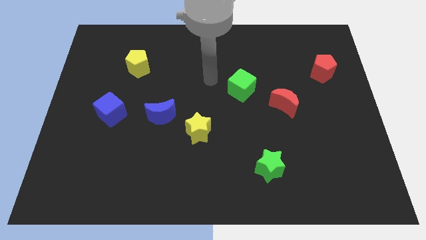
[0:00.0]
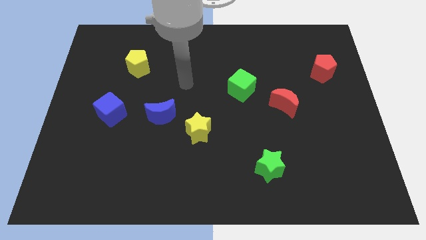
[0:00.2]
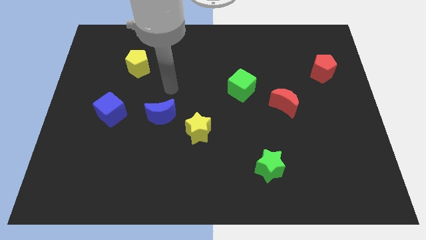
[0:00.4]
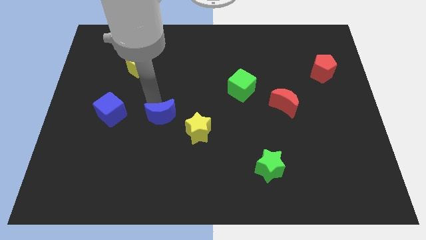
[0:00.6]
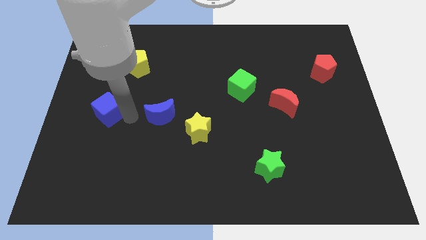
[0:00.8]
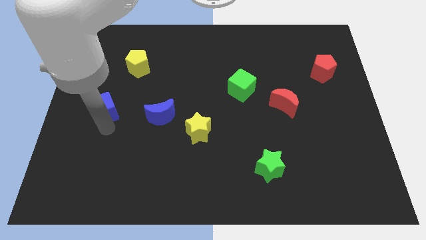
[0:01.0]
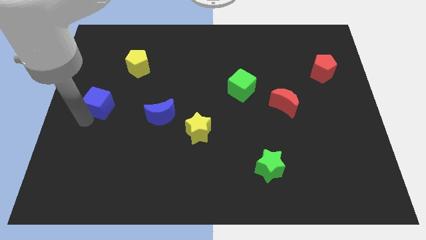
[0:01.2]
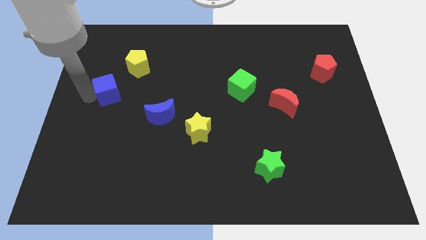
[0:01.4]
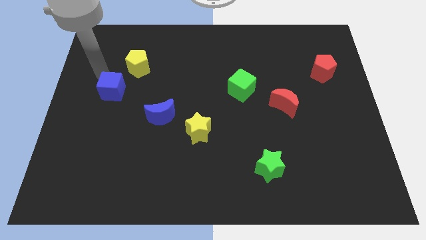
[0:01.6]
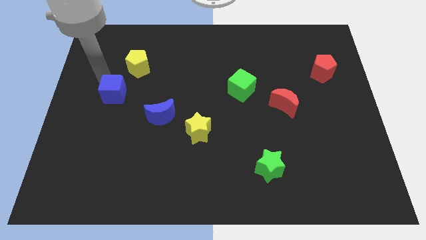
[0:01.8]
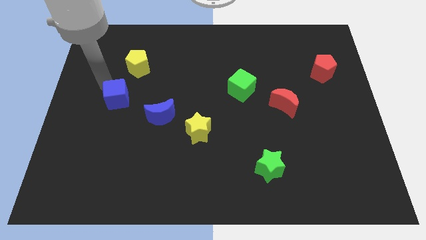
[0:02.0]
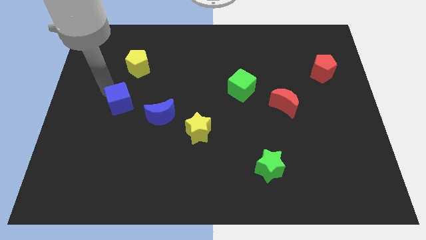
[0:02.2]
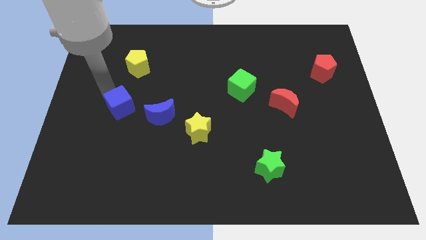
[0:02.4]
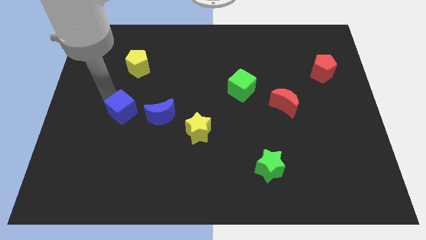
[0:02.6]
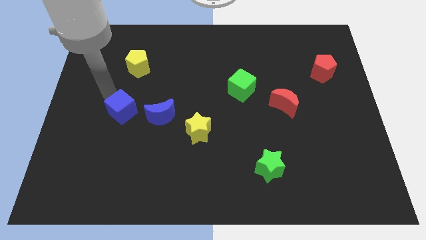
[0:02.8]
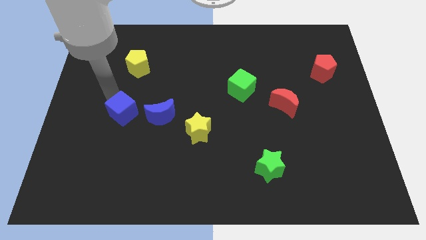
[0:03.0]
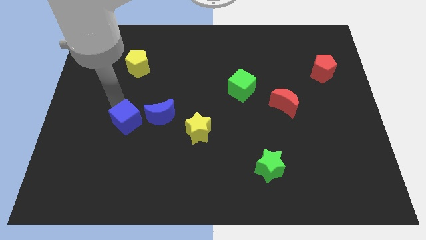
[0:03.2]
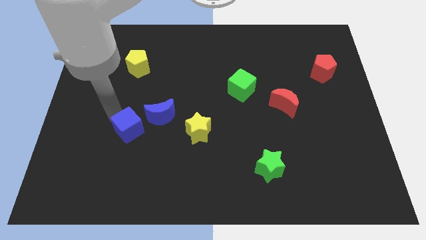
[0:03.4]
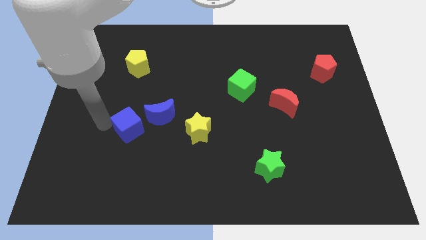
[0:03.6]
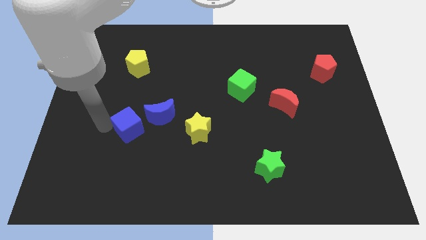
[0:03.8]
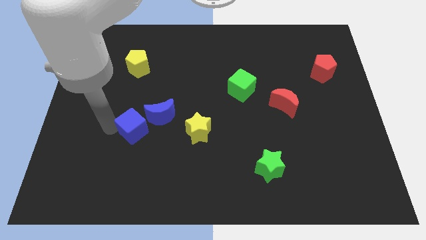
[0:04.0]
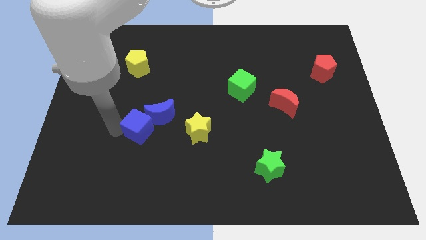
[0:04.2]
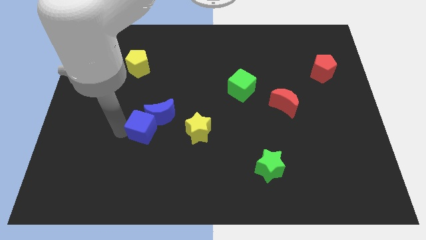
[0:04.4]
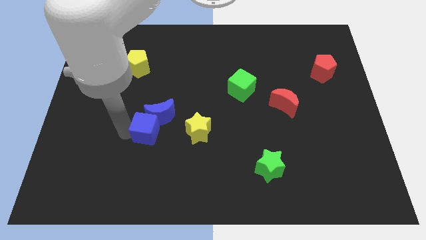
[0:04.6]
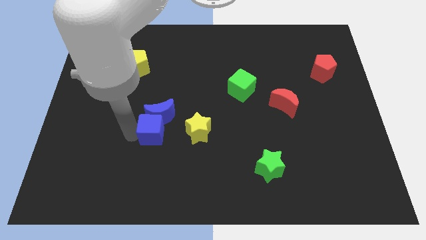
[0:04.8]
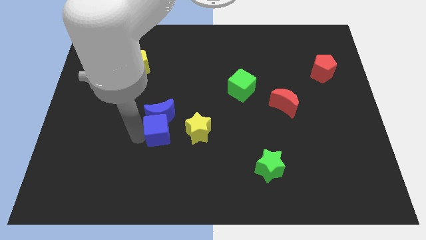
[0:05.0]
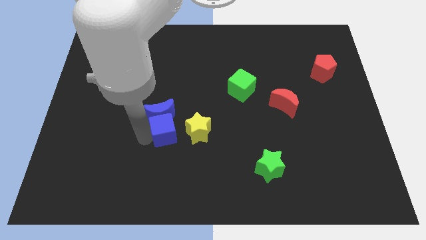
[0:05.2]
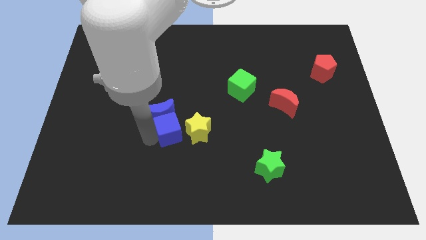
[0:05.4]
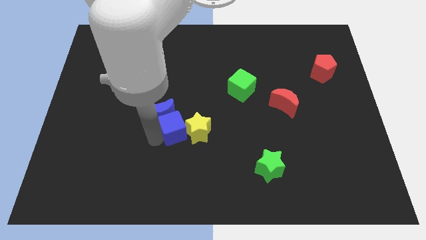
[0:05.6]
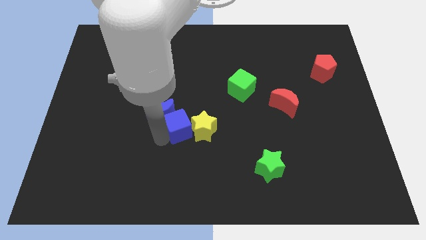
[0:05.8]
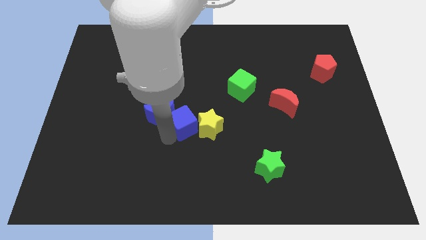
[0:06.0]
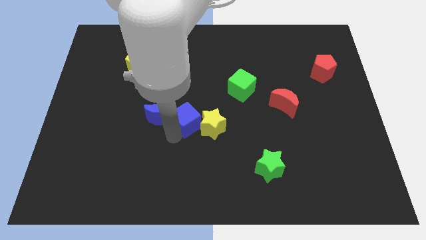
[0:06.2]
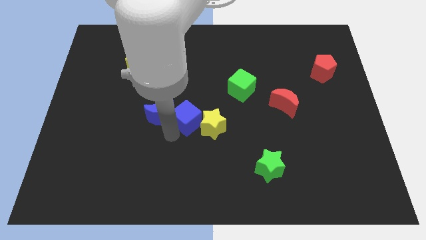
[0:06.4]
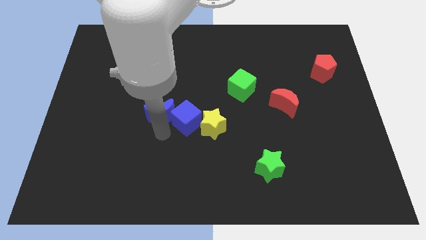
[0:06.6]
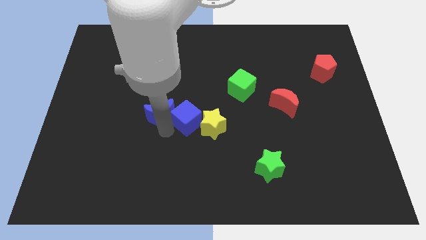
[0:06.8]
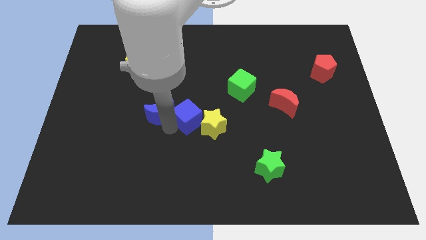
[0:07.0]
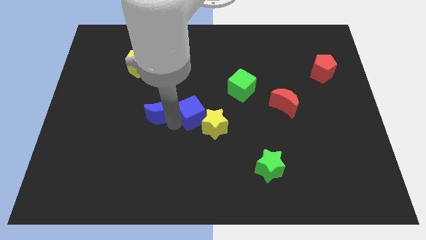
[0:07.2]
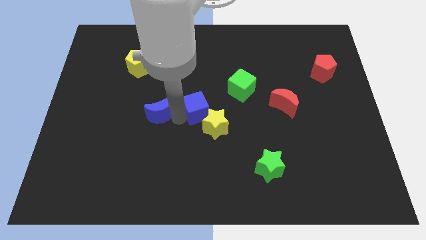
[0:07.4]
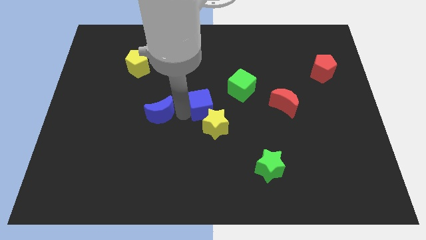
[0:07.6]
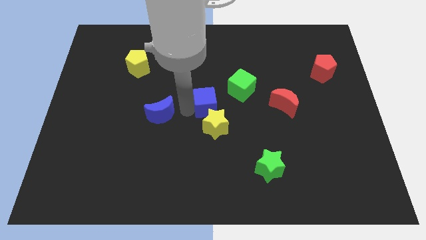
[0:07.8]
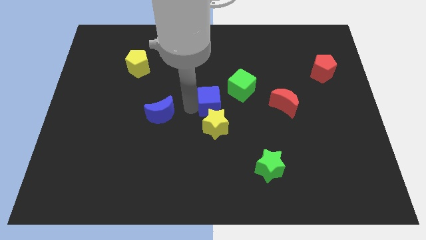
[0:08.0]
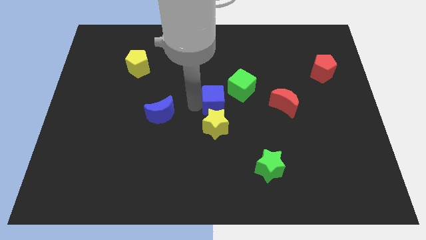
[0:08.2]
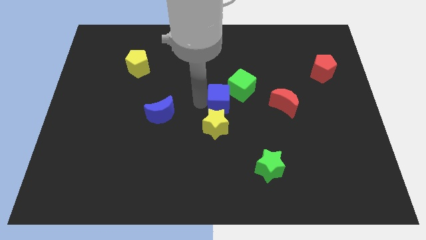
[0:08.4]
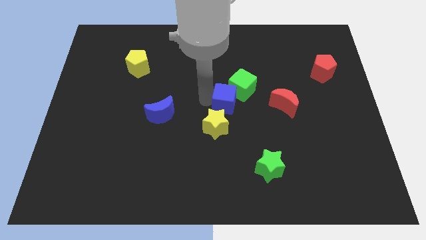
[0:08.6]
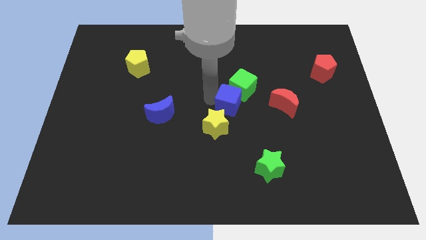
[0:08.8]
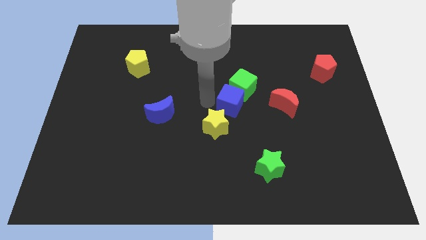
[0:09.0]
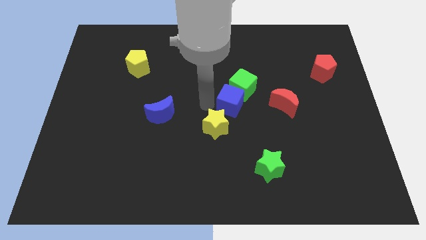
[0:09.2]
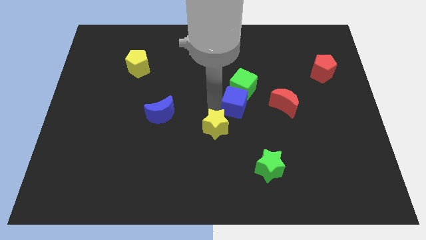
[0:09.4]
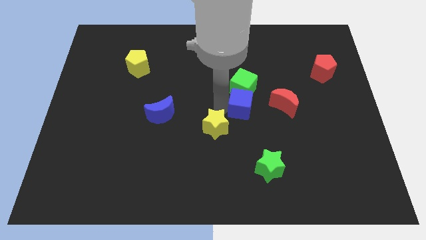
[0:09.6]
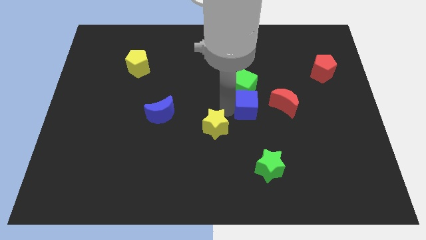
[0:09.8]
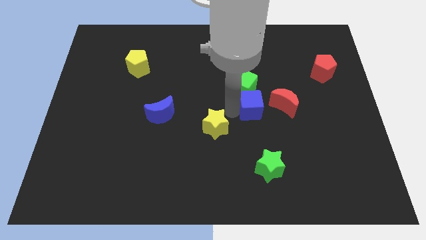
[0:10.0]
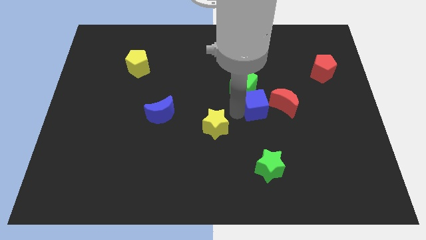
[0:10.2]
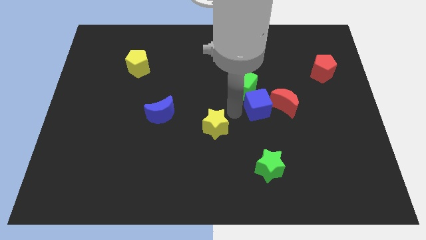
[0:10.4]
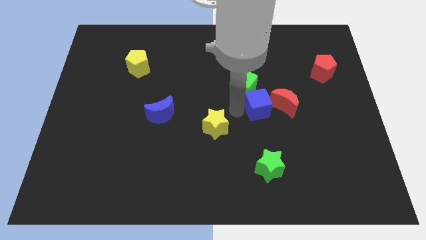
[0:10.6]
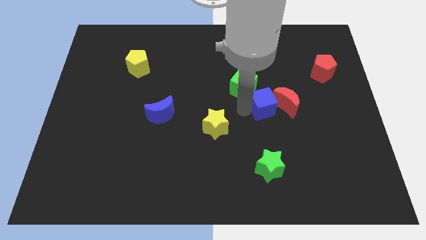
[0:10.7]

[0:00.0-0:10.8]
slide the blue cube towards the red moon

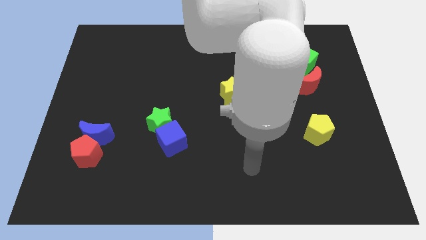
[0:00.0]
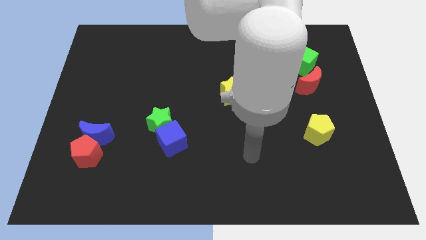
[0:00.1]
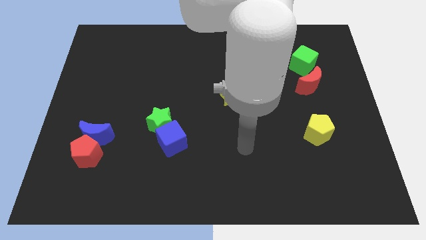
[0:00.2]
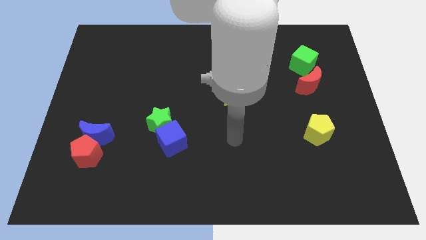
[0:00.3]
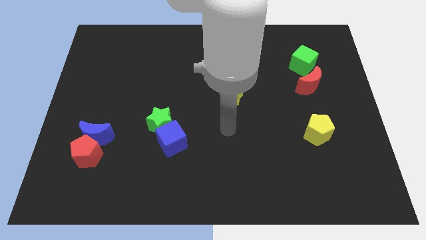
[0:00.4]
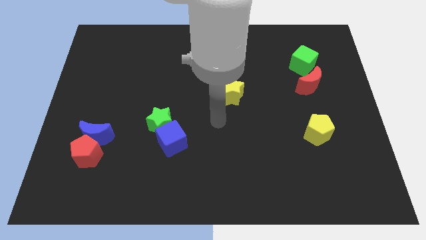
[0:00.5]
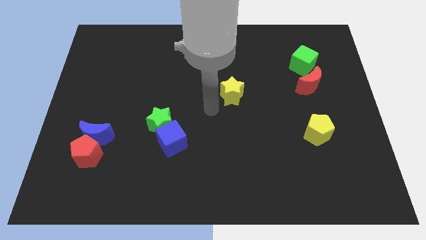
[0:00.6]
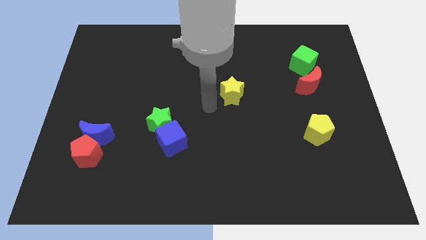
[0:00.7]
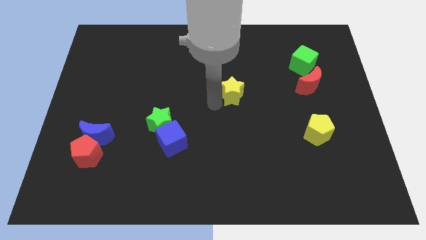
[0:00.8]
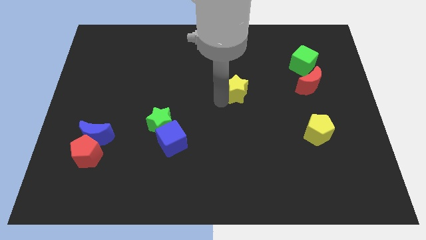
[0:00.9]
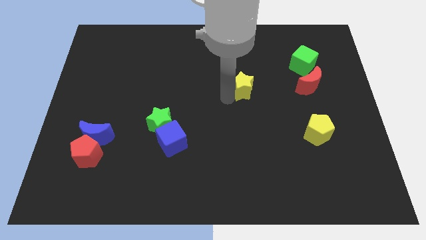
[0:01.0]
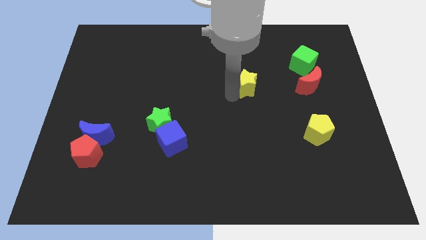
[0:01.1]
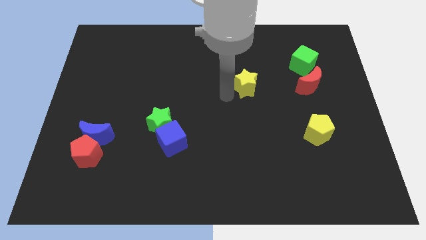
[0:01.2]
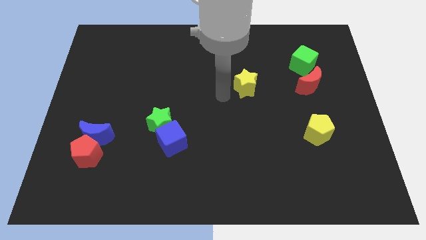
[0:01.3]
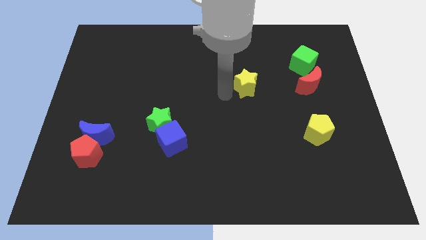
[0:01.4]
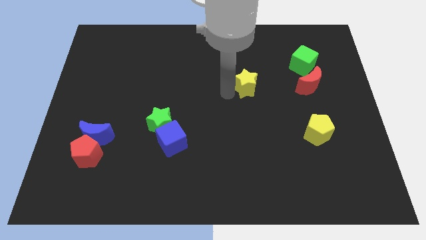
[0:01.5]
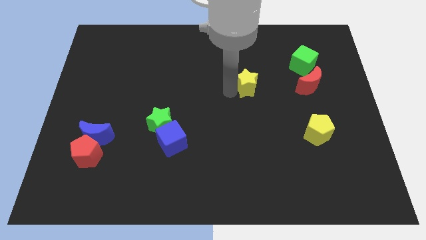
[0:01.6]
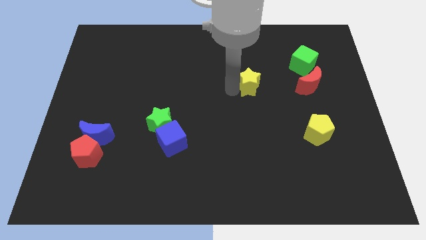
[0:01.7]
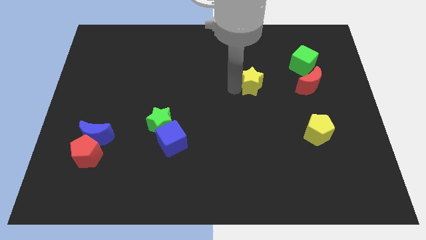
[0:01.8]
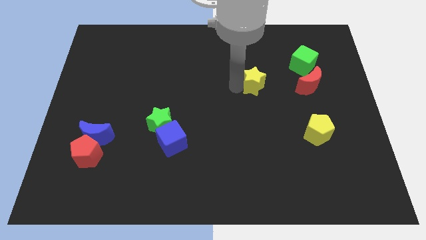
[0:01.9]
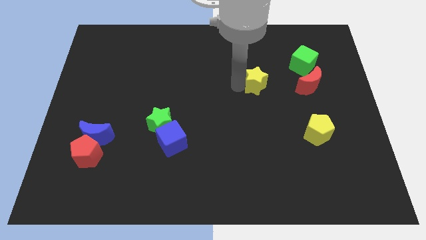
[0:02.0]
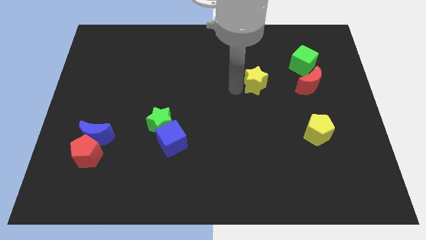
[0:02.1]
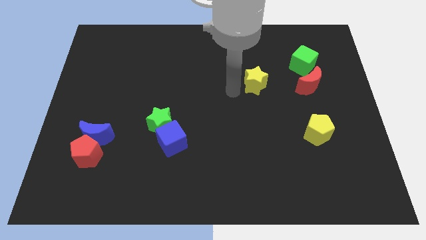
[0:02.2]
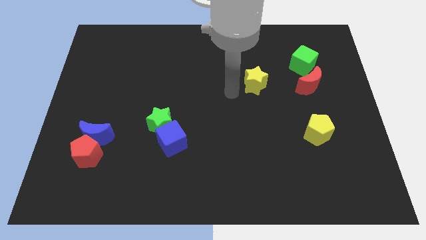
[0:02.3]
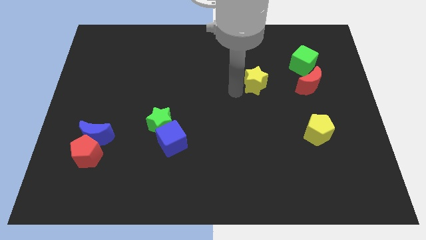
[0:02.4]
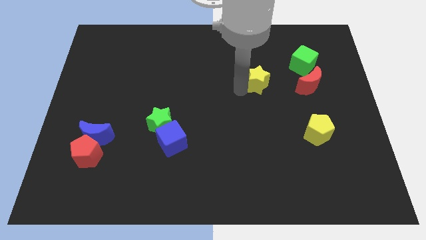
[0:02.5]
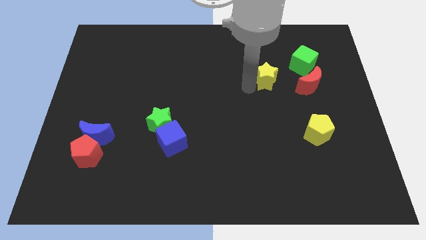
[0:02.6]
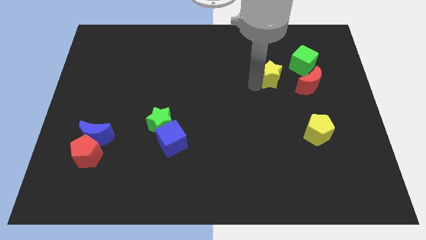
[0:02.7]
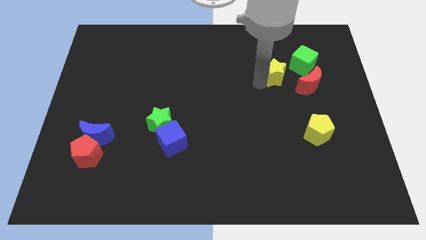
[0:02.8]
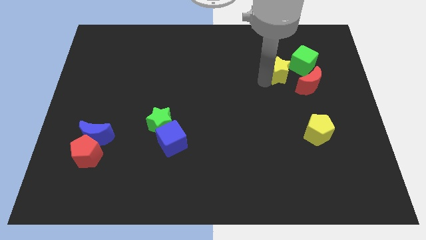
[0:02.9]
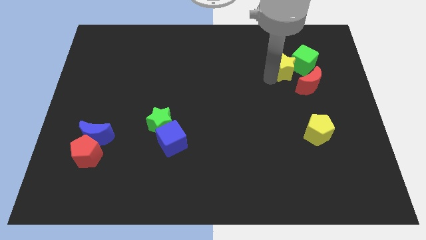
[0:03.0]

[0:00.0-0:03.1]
push the yellow star towards the green cube
